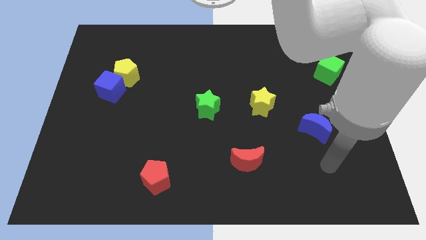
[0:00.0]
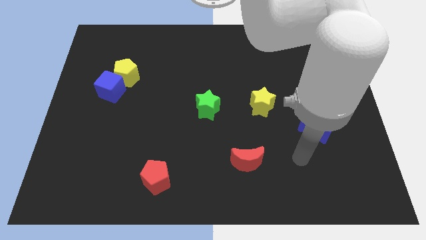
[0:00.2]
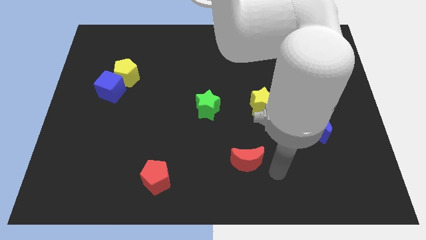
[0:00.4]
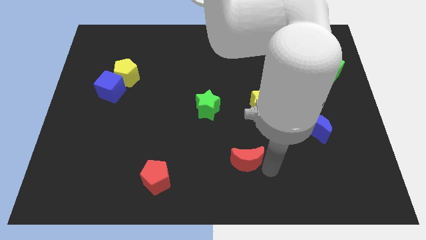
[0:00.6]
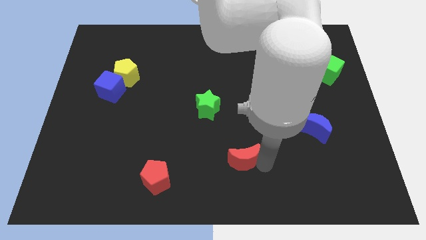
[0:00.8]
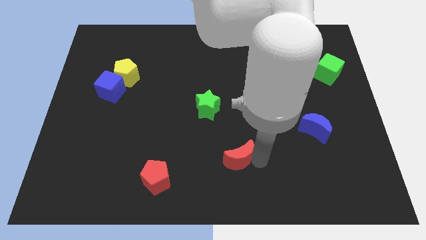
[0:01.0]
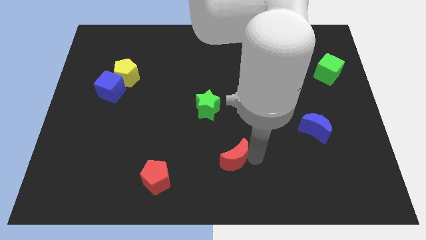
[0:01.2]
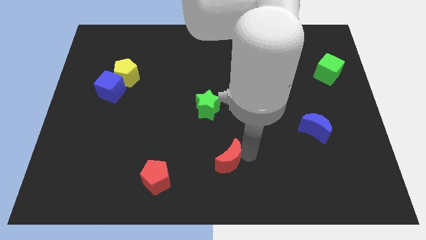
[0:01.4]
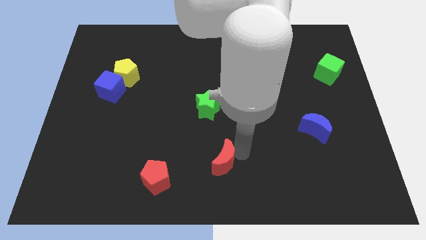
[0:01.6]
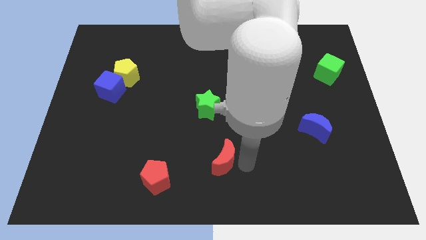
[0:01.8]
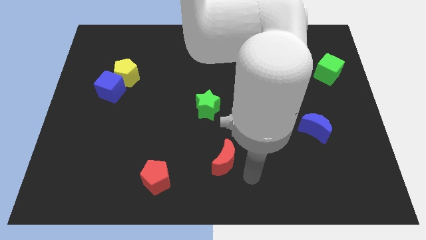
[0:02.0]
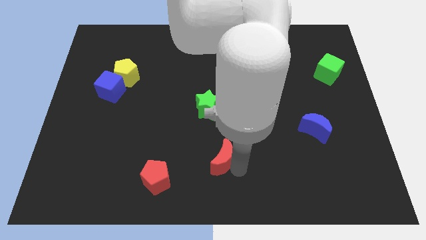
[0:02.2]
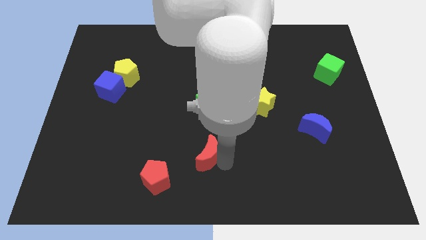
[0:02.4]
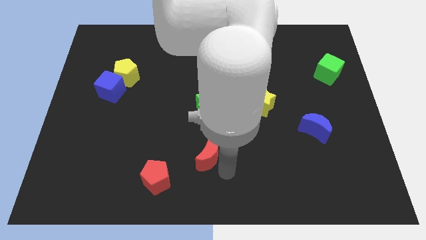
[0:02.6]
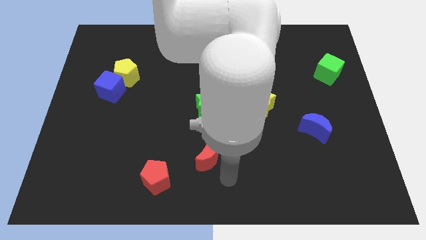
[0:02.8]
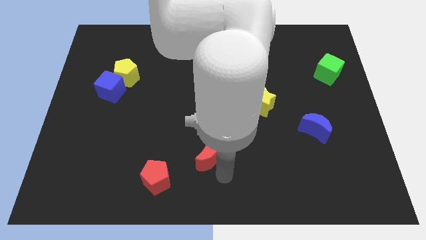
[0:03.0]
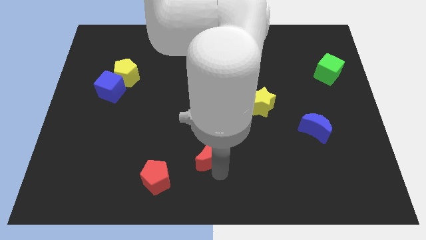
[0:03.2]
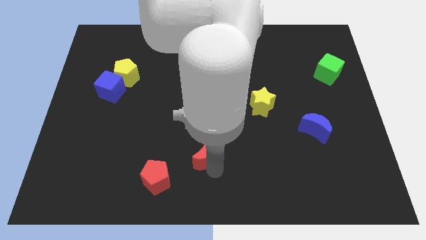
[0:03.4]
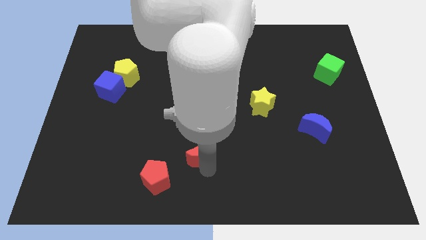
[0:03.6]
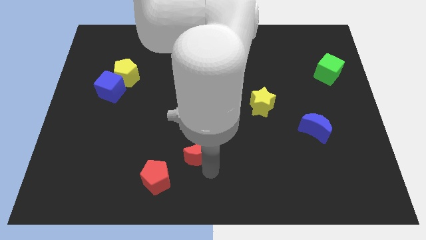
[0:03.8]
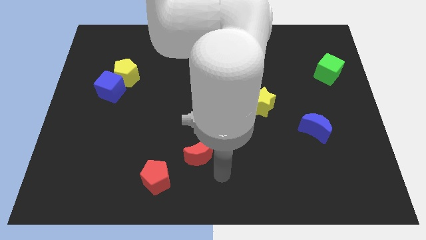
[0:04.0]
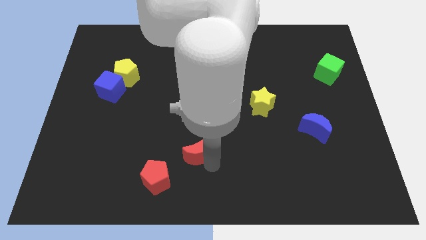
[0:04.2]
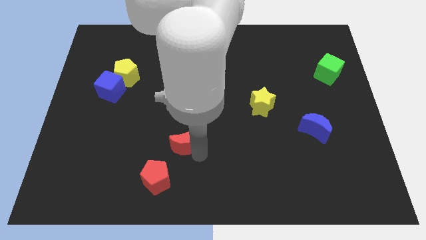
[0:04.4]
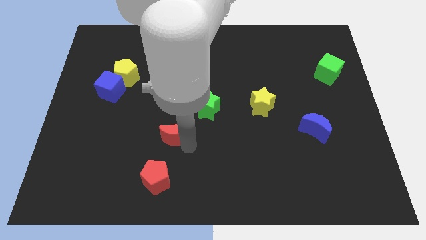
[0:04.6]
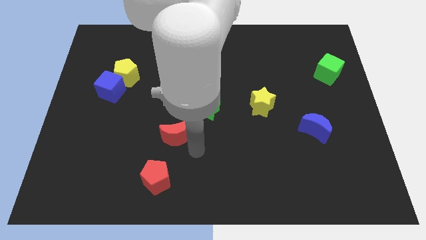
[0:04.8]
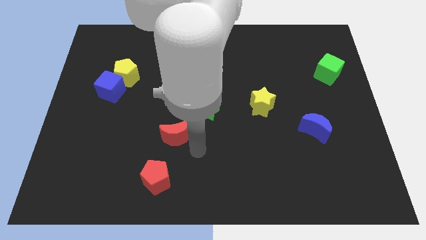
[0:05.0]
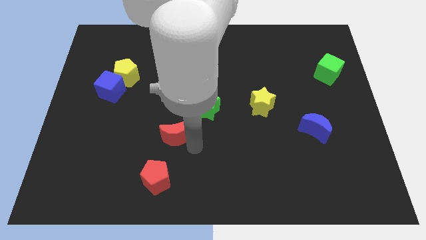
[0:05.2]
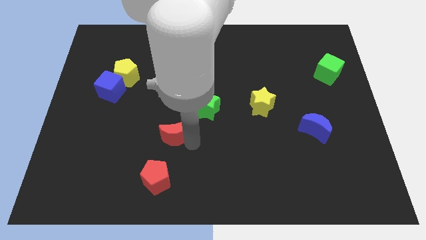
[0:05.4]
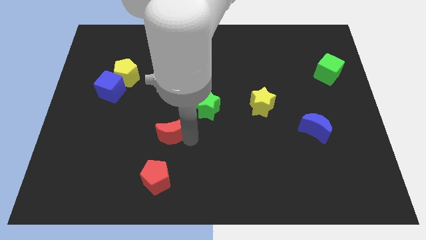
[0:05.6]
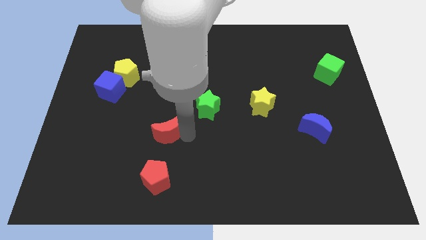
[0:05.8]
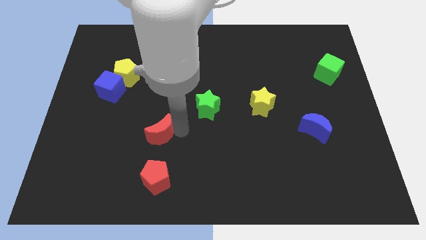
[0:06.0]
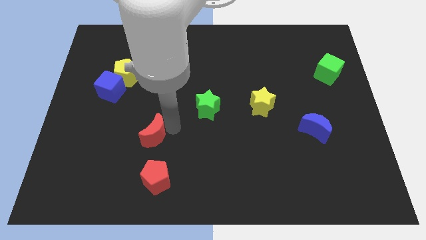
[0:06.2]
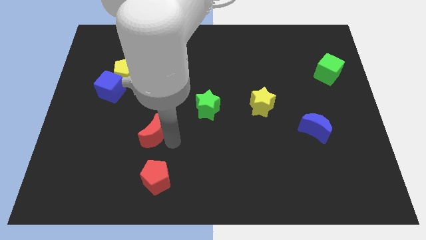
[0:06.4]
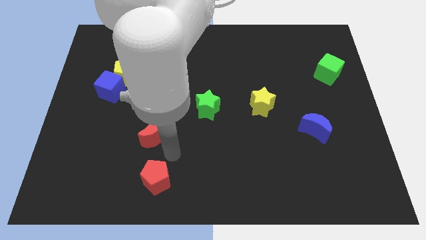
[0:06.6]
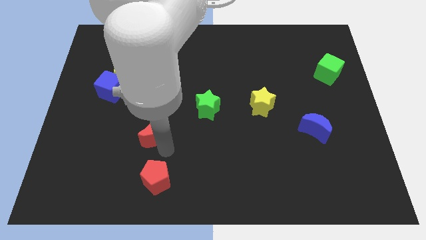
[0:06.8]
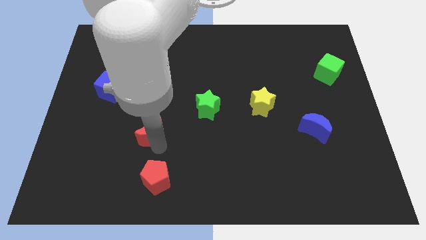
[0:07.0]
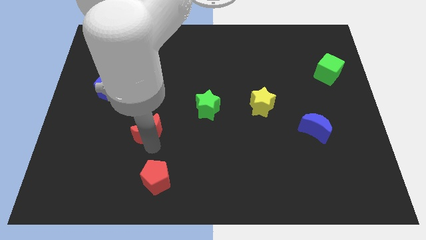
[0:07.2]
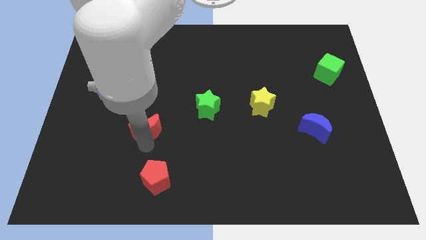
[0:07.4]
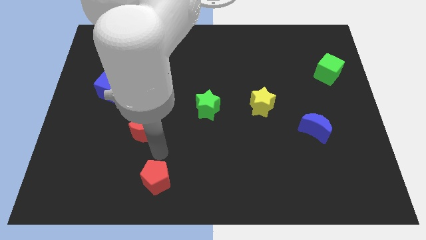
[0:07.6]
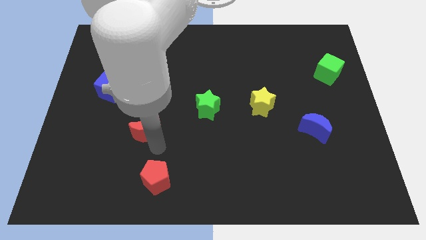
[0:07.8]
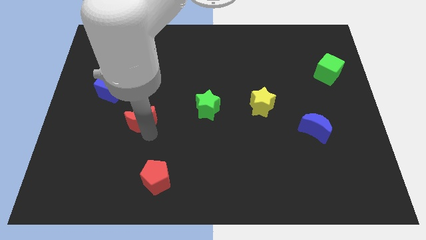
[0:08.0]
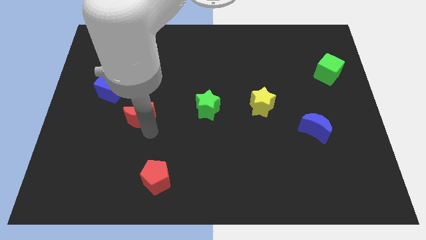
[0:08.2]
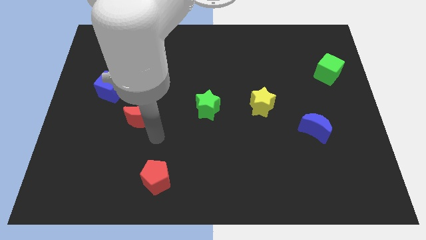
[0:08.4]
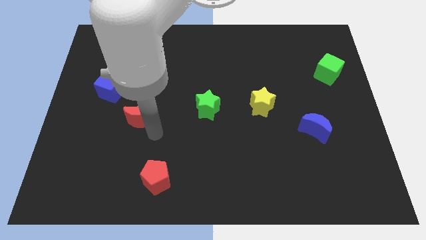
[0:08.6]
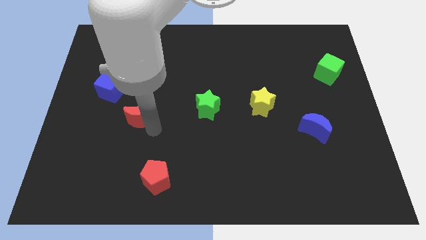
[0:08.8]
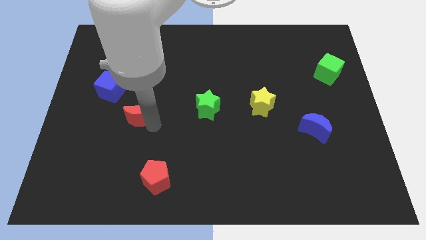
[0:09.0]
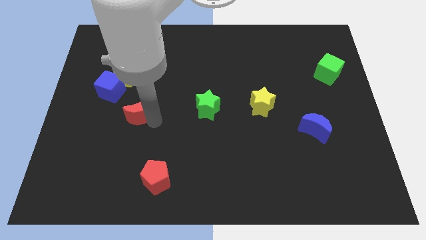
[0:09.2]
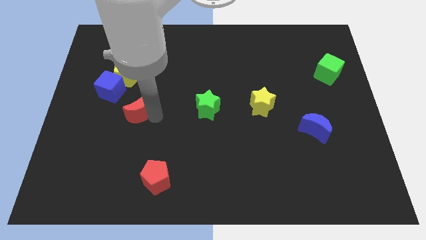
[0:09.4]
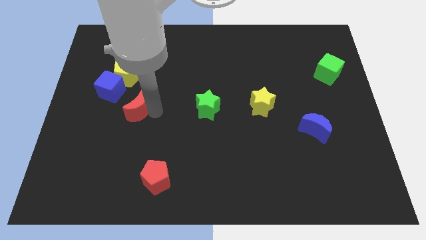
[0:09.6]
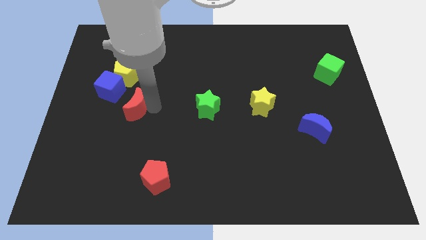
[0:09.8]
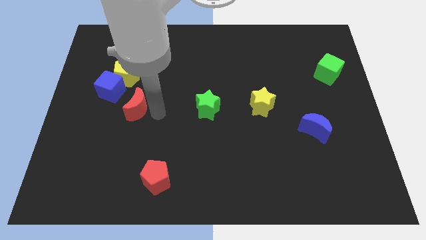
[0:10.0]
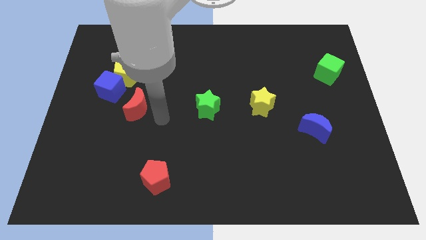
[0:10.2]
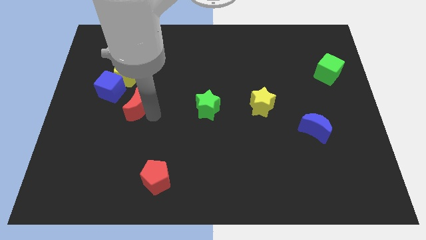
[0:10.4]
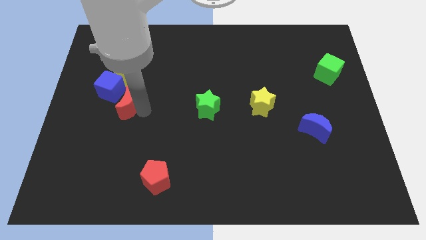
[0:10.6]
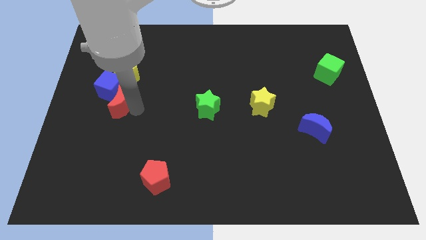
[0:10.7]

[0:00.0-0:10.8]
slide the red moon next to the blue cube

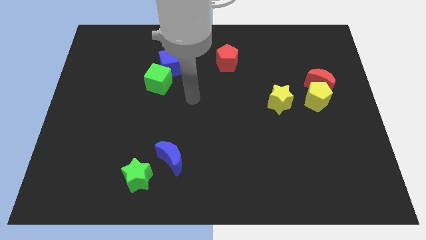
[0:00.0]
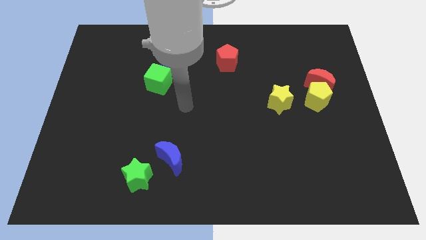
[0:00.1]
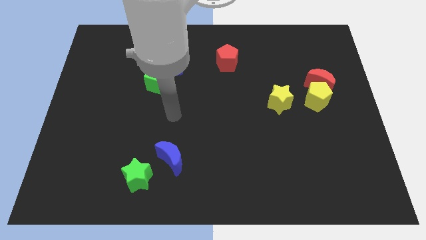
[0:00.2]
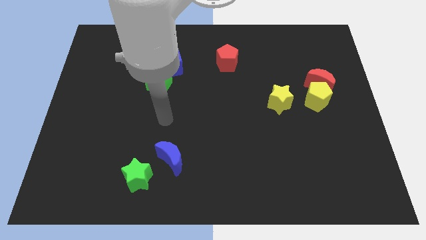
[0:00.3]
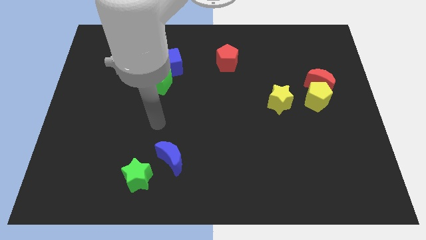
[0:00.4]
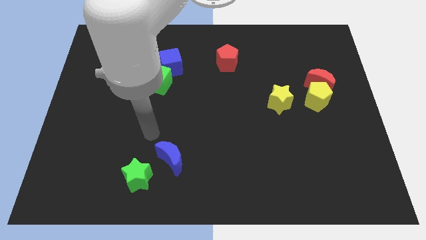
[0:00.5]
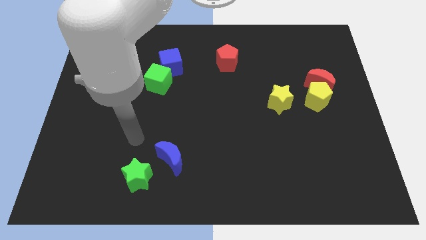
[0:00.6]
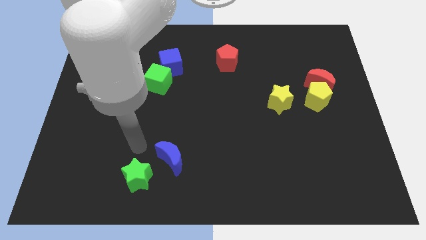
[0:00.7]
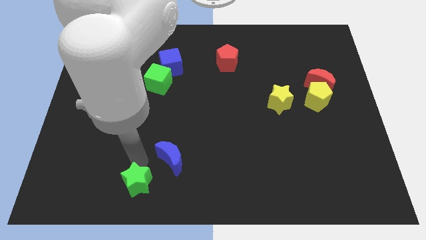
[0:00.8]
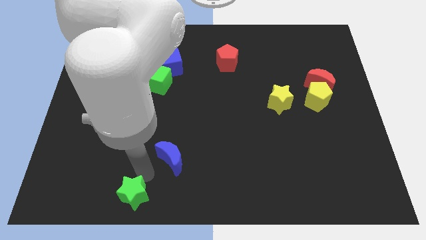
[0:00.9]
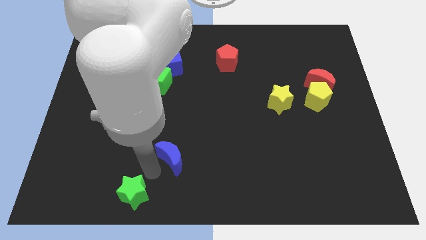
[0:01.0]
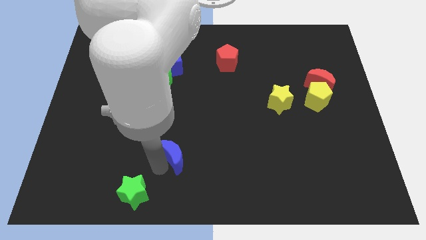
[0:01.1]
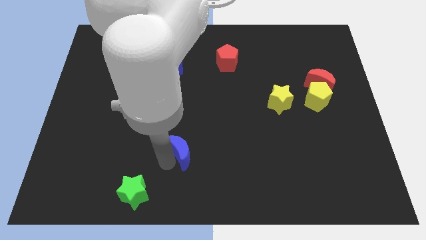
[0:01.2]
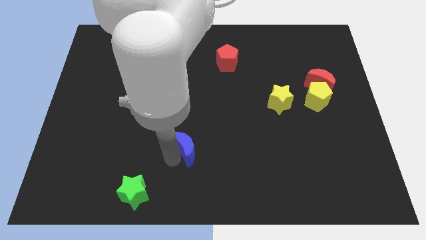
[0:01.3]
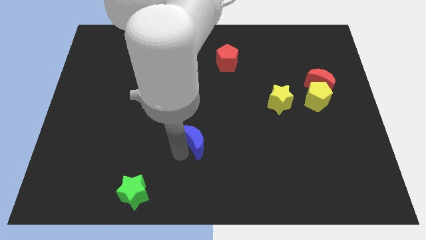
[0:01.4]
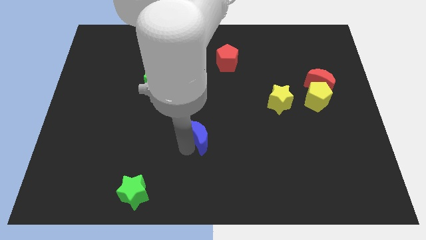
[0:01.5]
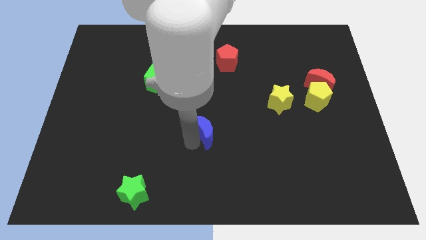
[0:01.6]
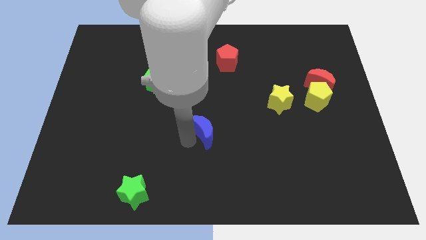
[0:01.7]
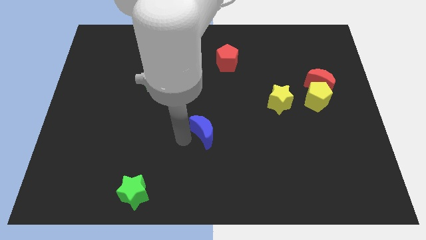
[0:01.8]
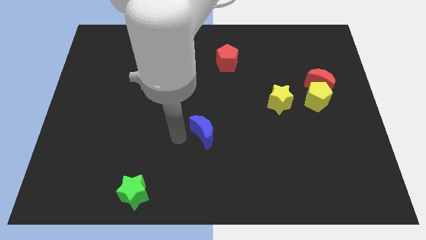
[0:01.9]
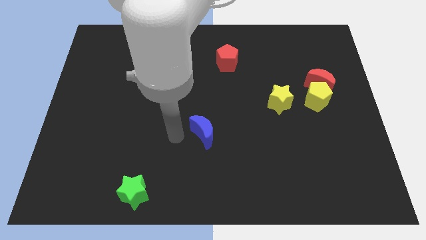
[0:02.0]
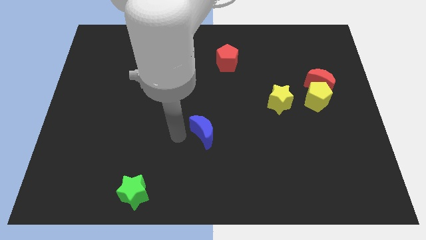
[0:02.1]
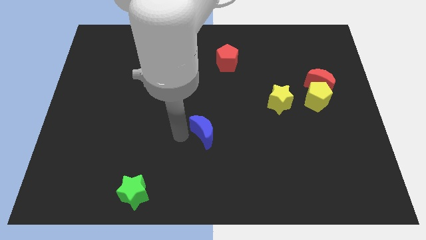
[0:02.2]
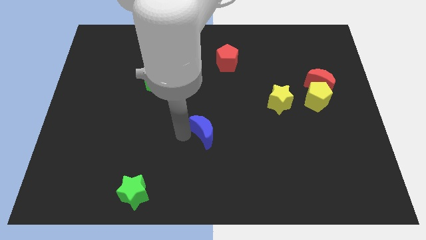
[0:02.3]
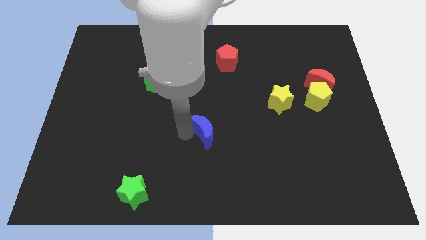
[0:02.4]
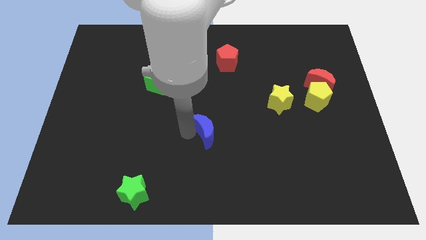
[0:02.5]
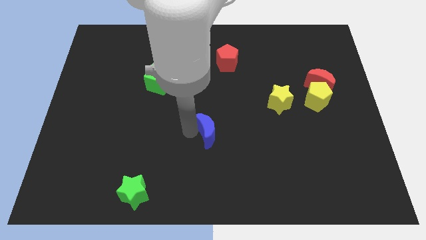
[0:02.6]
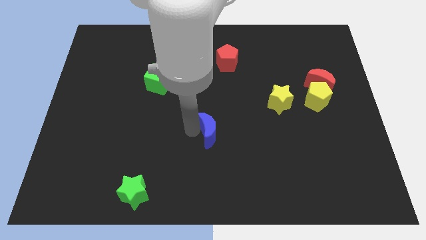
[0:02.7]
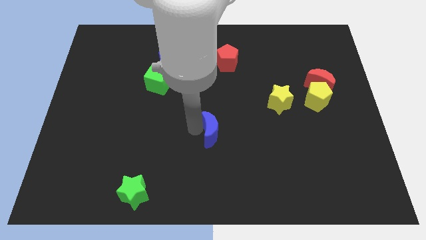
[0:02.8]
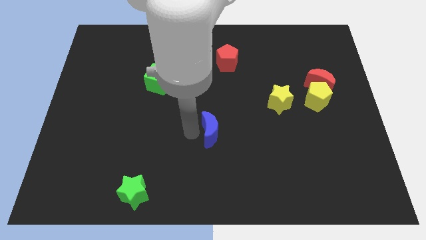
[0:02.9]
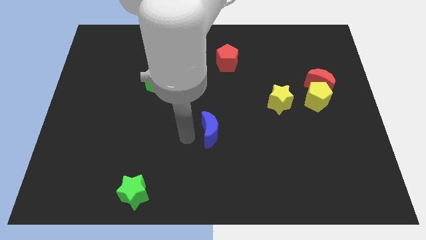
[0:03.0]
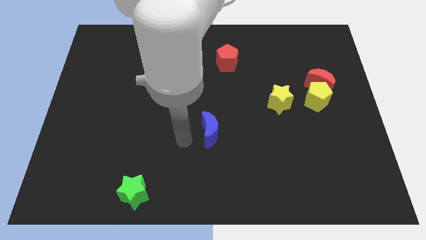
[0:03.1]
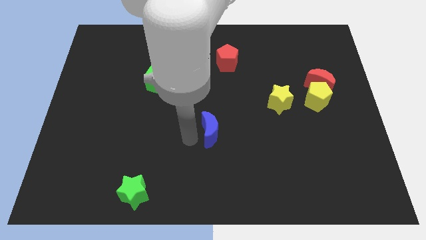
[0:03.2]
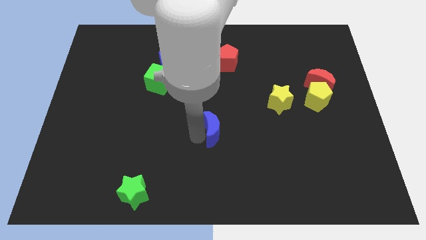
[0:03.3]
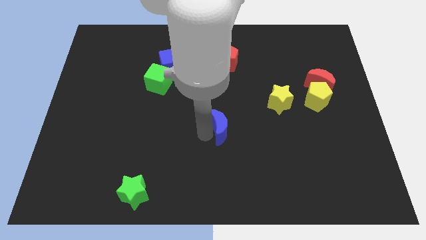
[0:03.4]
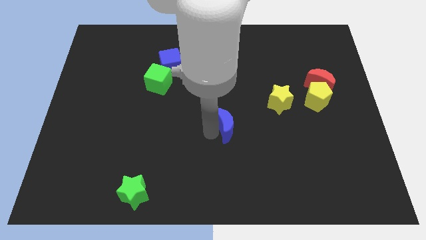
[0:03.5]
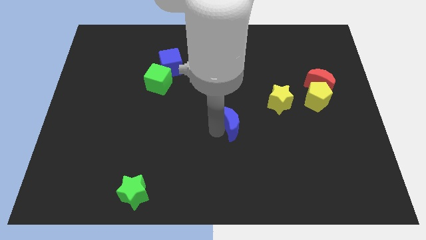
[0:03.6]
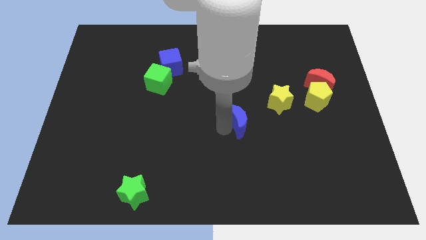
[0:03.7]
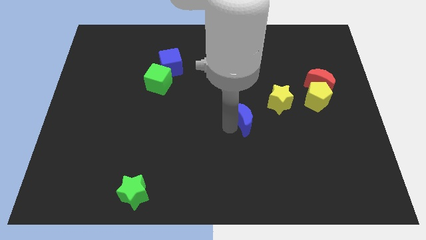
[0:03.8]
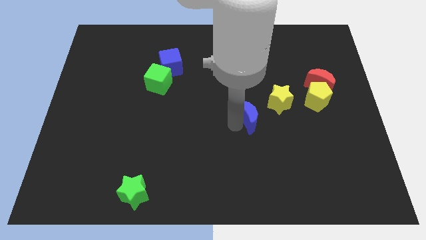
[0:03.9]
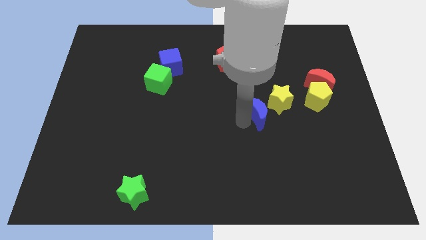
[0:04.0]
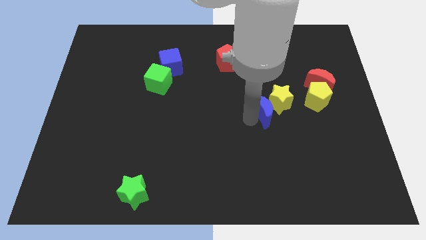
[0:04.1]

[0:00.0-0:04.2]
slide the blue moon next to the yellow star
